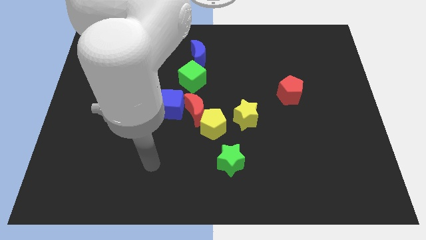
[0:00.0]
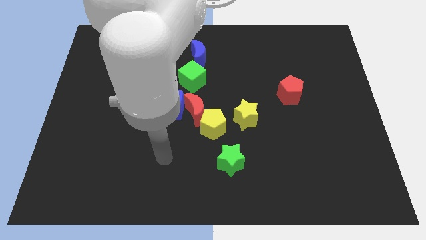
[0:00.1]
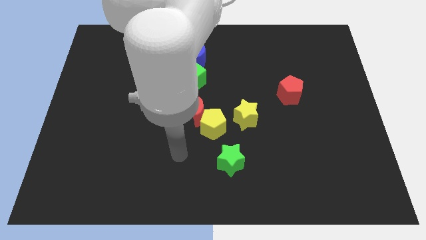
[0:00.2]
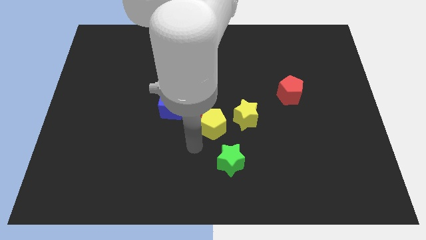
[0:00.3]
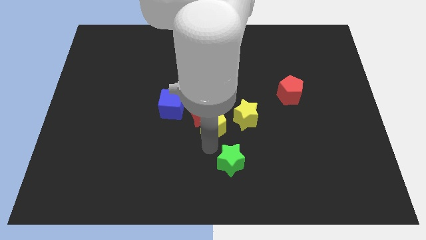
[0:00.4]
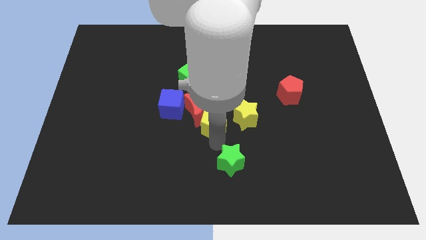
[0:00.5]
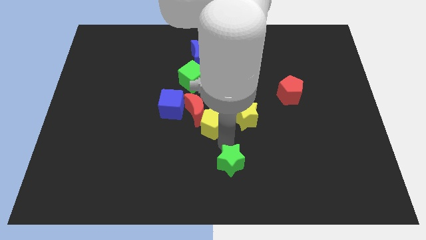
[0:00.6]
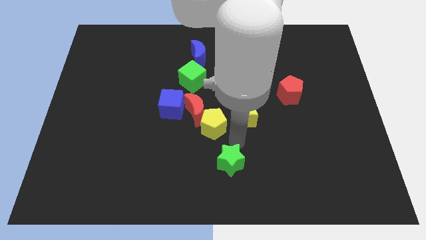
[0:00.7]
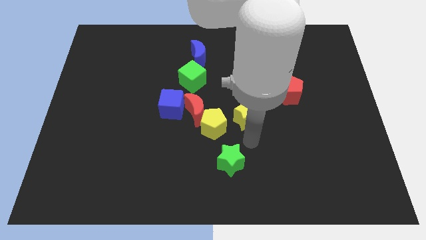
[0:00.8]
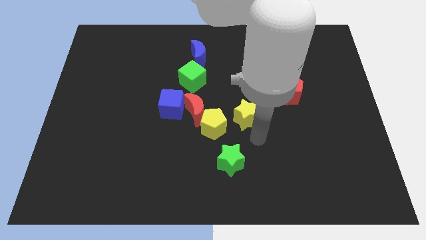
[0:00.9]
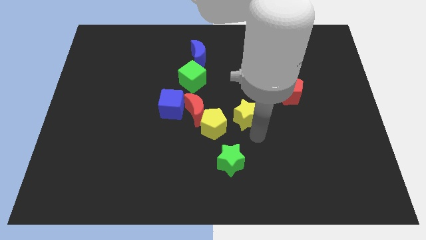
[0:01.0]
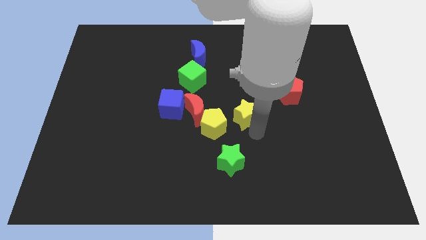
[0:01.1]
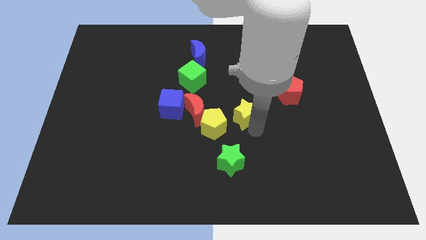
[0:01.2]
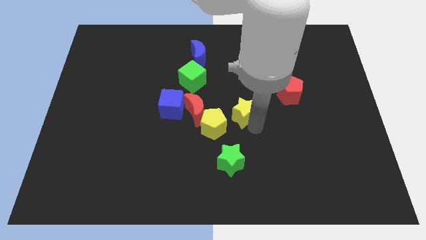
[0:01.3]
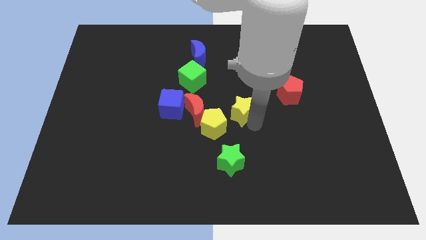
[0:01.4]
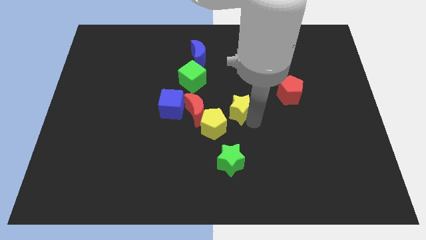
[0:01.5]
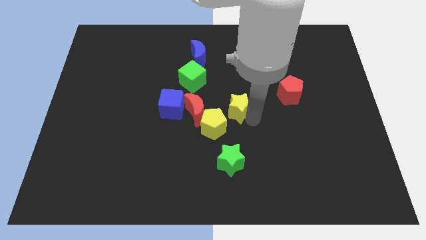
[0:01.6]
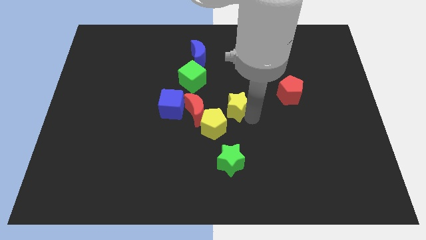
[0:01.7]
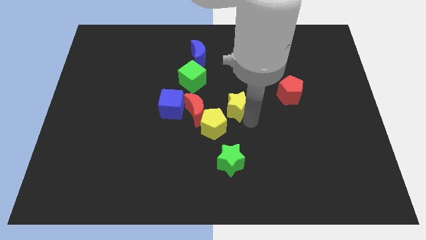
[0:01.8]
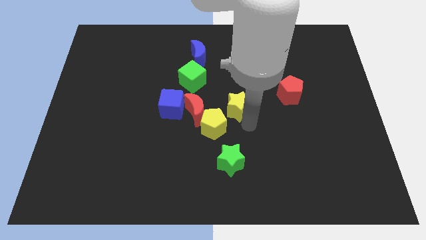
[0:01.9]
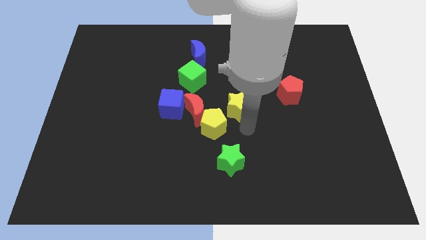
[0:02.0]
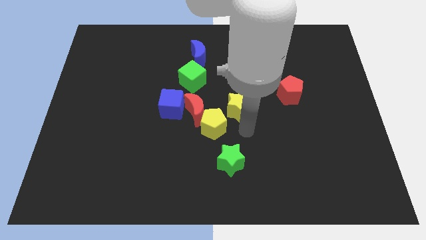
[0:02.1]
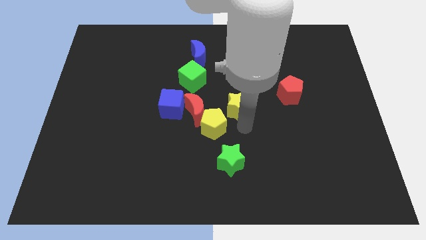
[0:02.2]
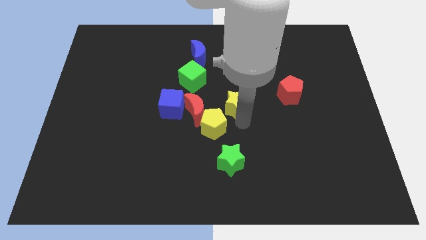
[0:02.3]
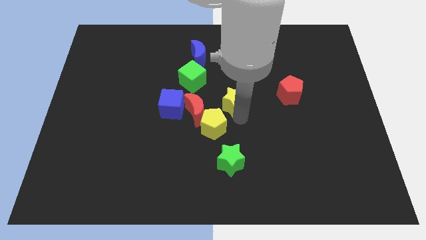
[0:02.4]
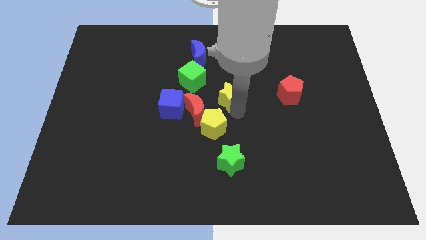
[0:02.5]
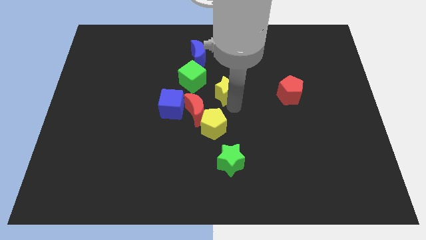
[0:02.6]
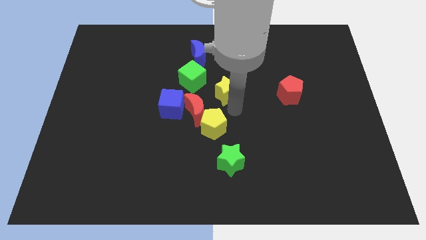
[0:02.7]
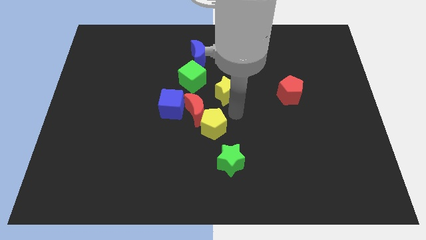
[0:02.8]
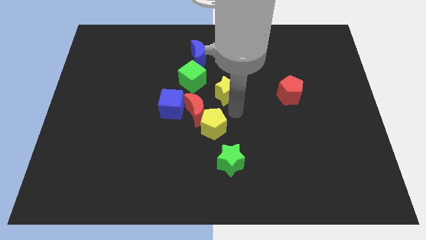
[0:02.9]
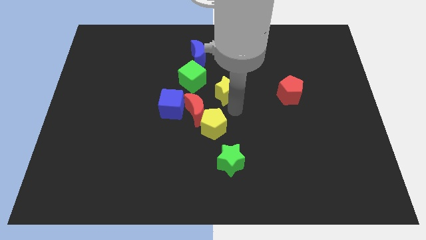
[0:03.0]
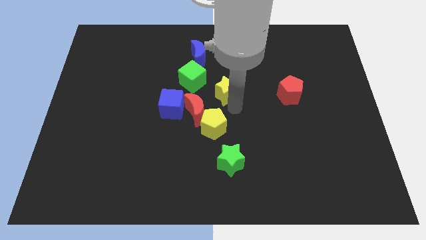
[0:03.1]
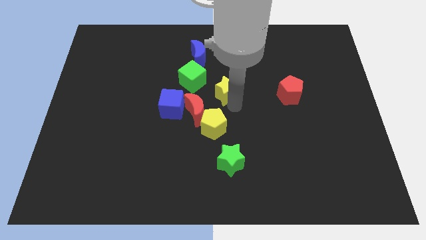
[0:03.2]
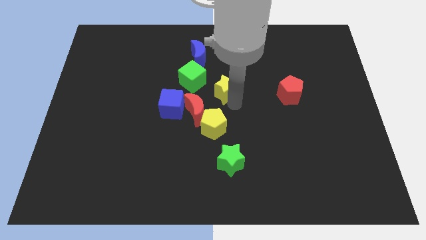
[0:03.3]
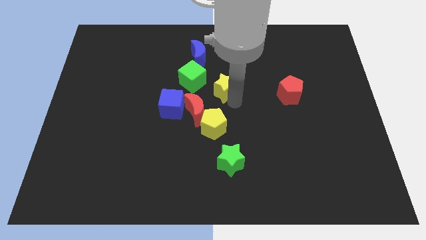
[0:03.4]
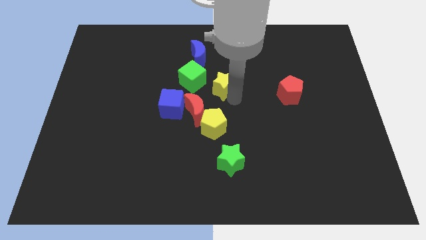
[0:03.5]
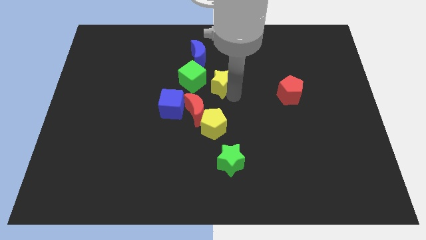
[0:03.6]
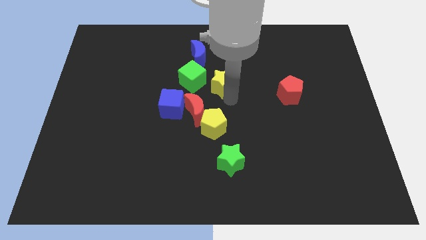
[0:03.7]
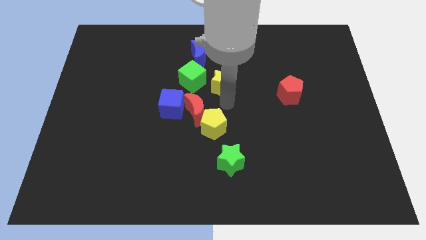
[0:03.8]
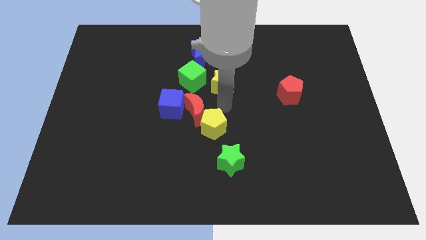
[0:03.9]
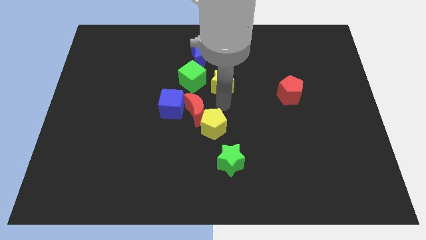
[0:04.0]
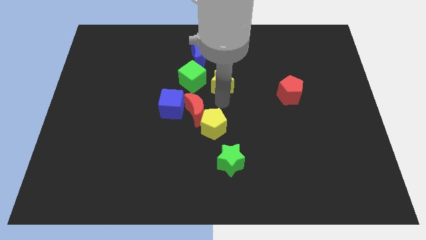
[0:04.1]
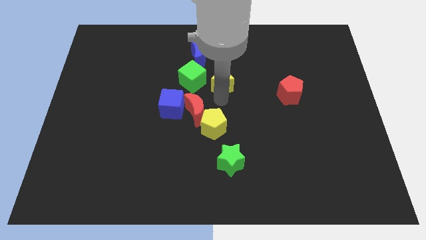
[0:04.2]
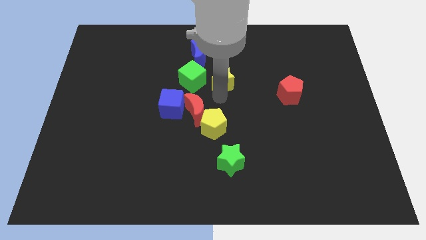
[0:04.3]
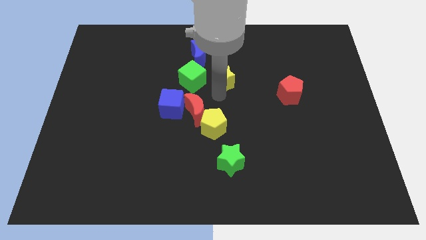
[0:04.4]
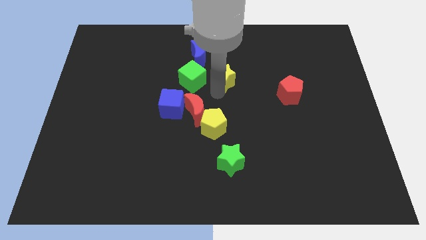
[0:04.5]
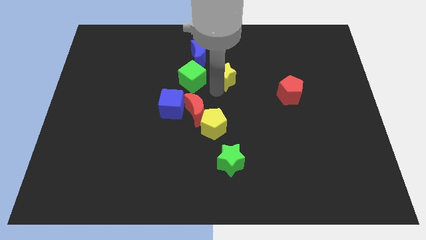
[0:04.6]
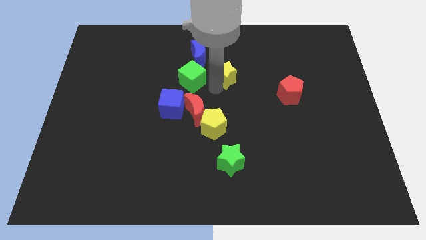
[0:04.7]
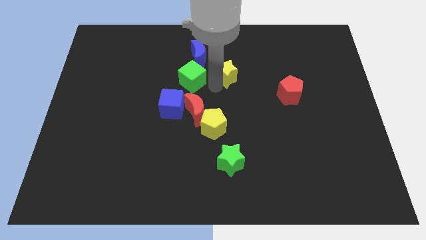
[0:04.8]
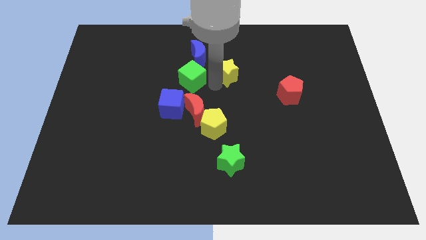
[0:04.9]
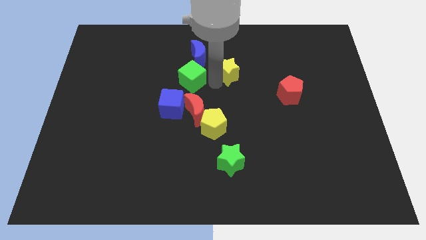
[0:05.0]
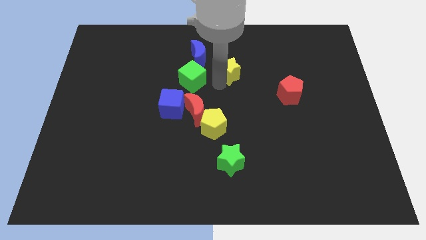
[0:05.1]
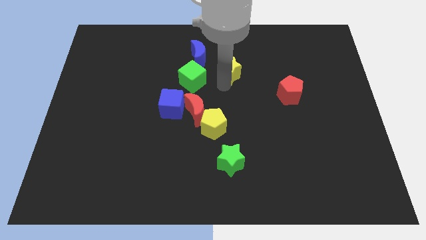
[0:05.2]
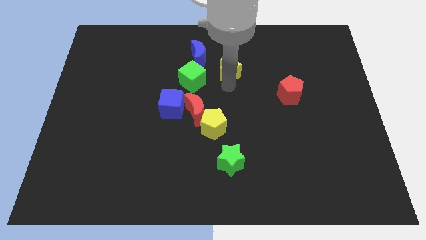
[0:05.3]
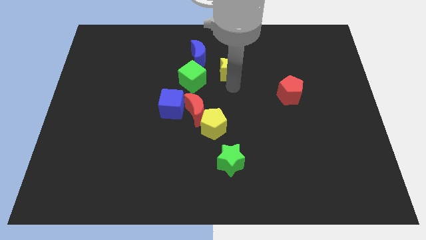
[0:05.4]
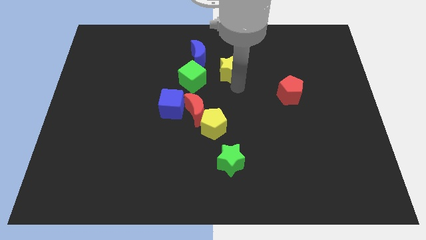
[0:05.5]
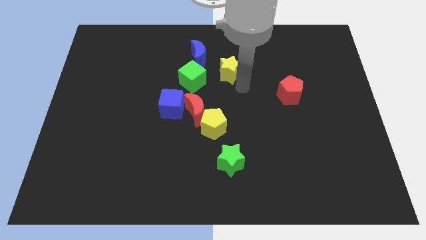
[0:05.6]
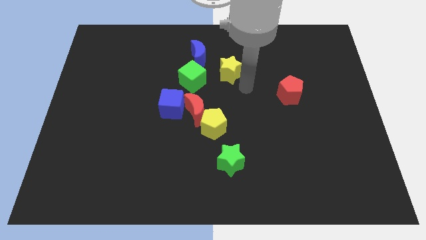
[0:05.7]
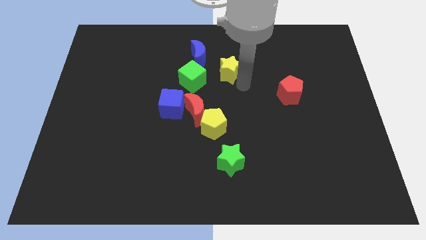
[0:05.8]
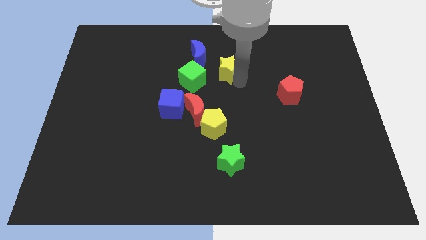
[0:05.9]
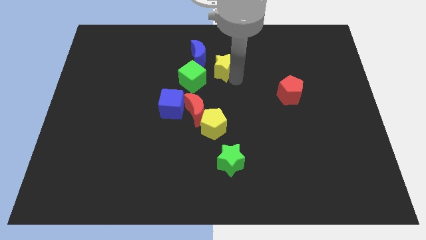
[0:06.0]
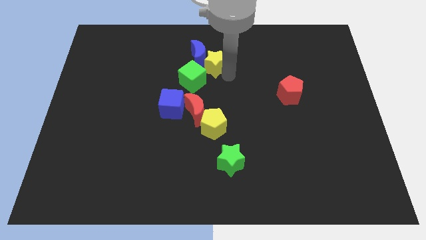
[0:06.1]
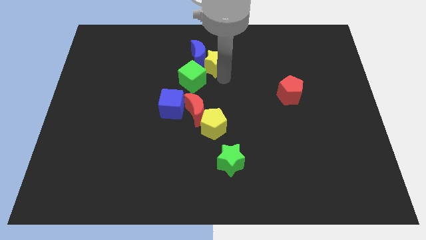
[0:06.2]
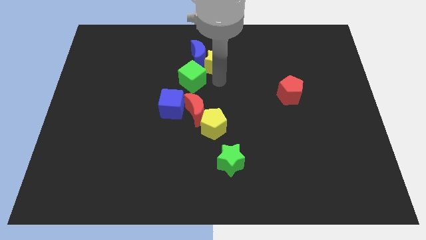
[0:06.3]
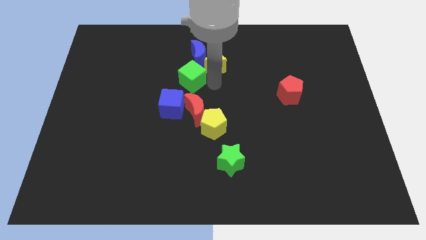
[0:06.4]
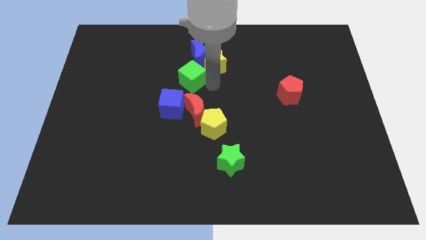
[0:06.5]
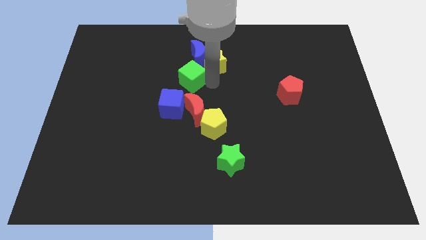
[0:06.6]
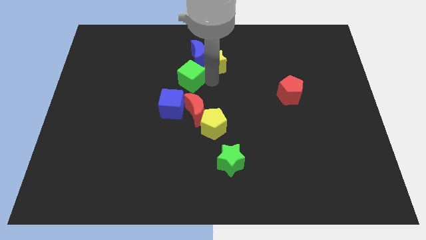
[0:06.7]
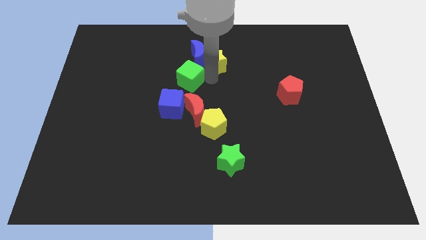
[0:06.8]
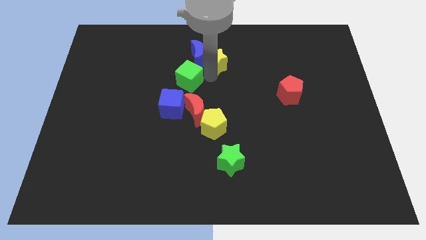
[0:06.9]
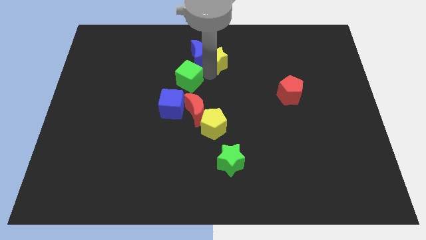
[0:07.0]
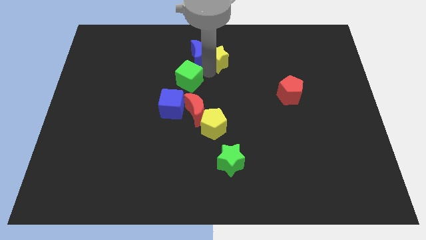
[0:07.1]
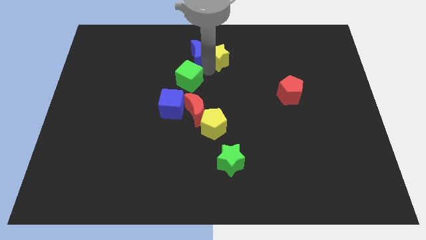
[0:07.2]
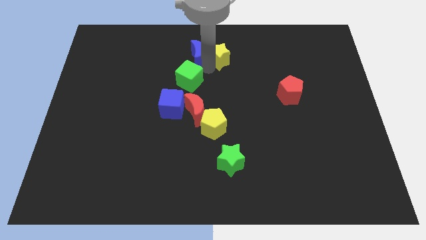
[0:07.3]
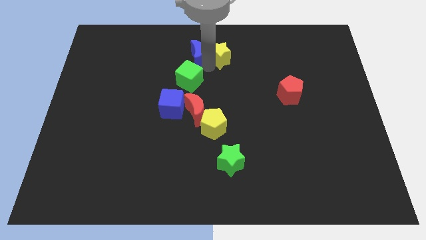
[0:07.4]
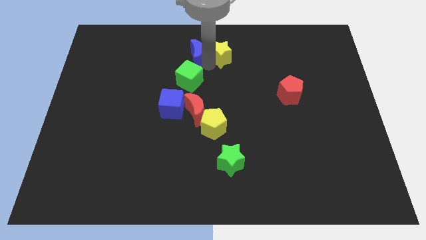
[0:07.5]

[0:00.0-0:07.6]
push the yellow star to the top
